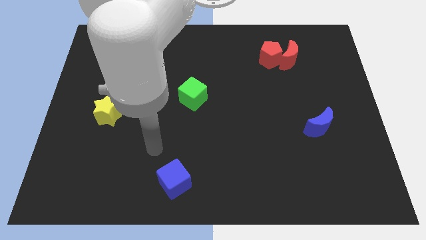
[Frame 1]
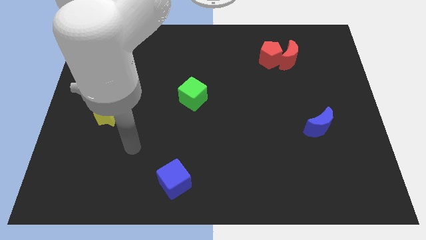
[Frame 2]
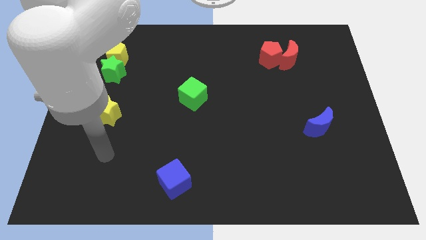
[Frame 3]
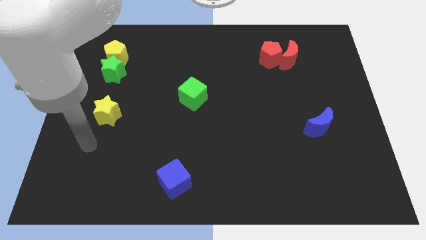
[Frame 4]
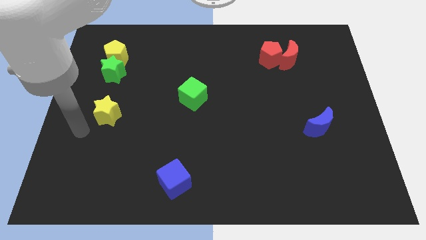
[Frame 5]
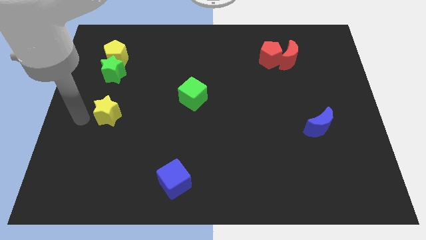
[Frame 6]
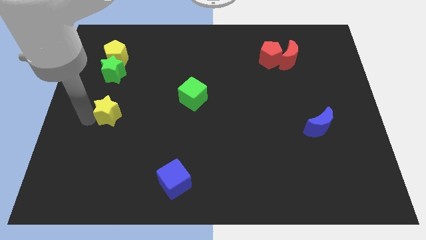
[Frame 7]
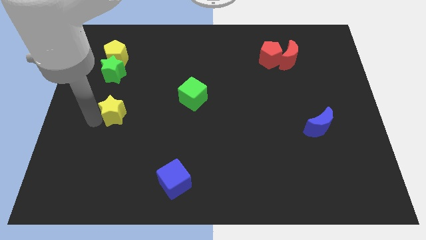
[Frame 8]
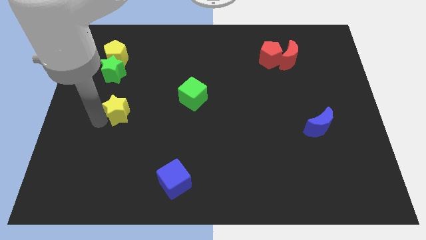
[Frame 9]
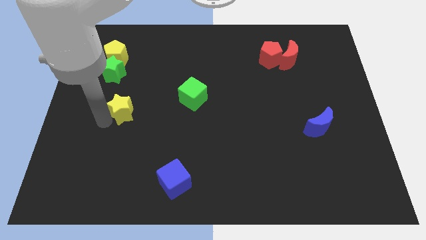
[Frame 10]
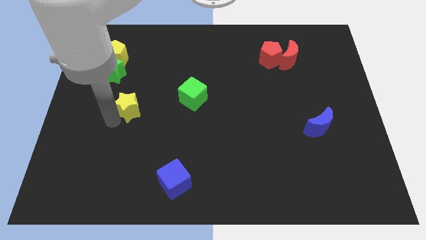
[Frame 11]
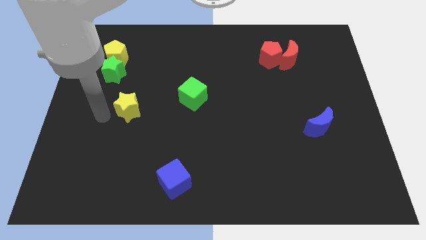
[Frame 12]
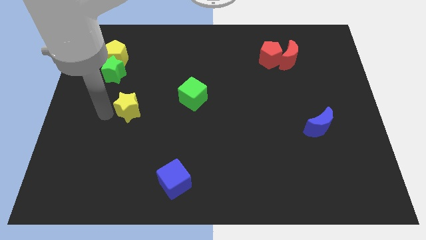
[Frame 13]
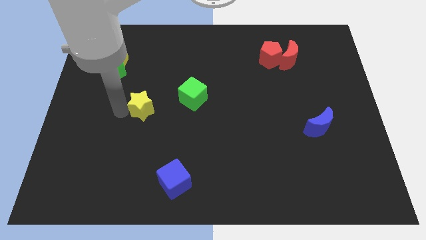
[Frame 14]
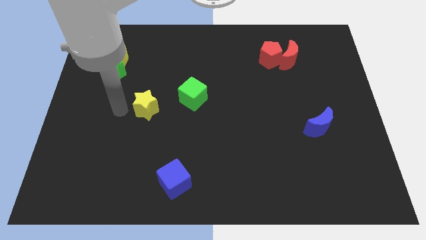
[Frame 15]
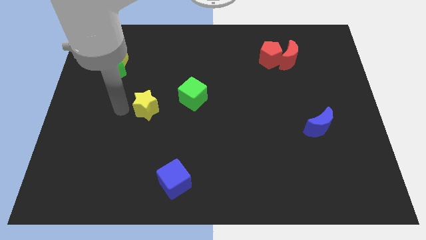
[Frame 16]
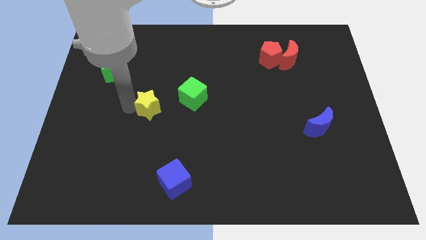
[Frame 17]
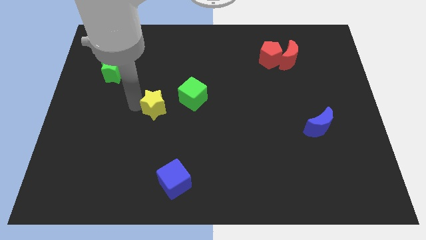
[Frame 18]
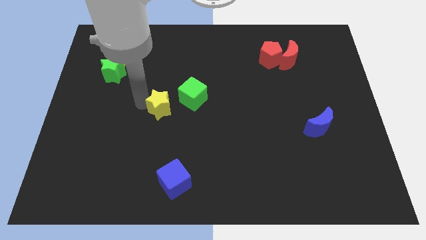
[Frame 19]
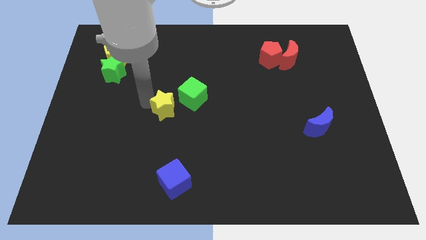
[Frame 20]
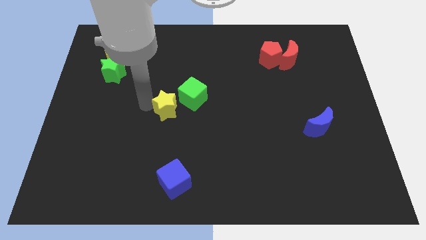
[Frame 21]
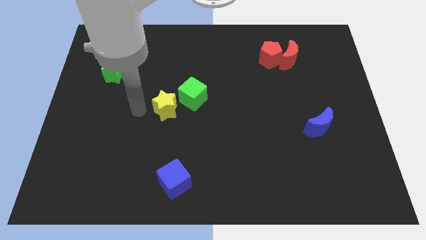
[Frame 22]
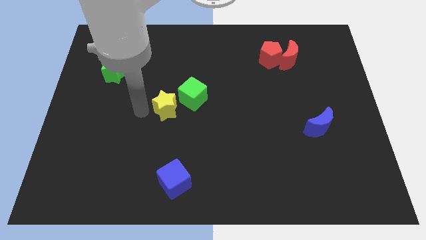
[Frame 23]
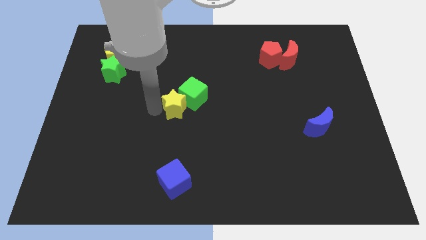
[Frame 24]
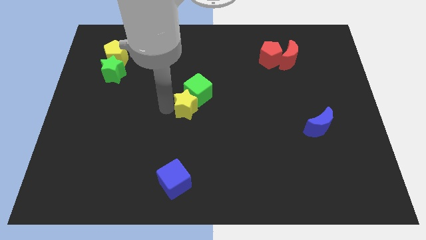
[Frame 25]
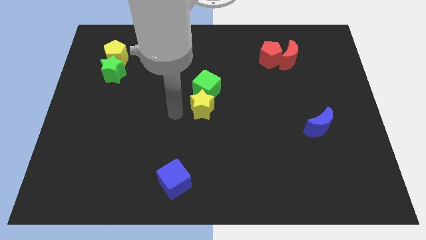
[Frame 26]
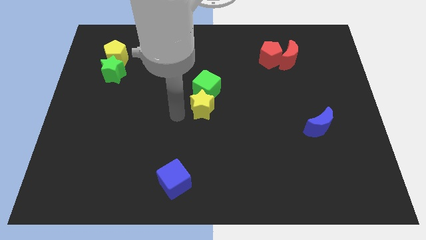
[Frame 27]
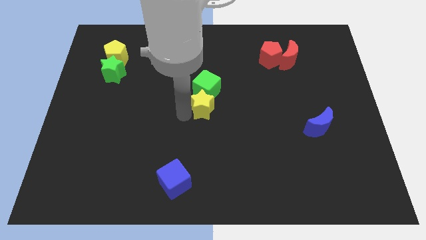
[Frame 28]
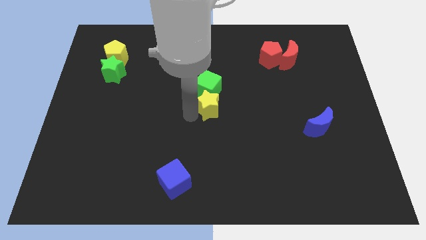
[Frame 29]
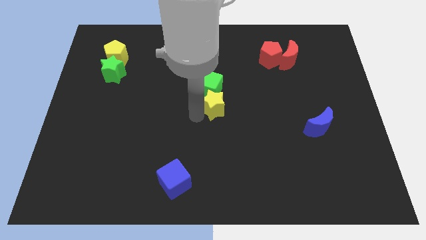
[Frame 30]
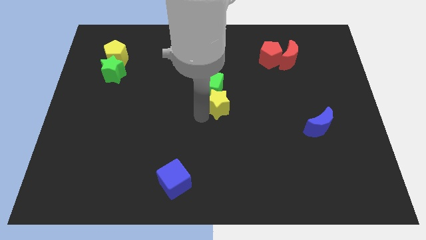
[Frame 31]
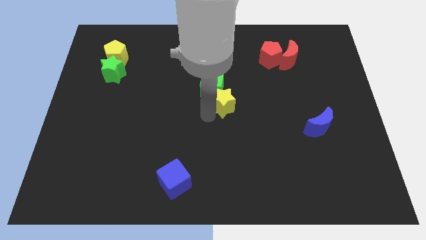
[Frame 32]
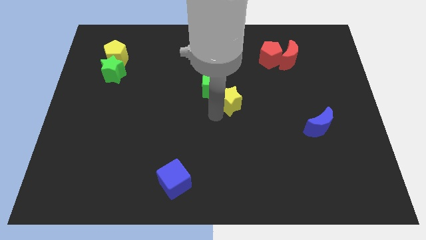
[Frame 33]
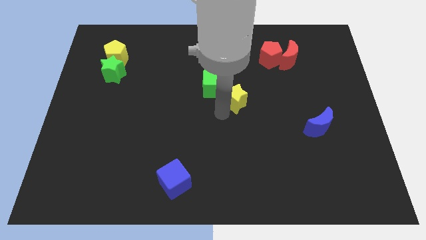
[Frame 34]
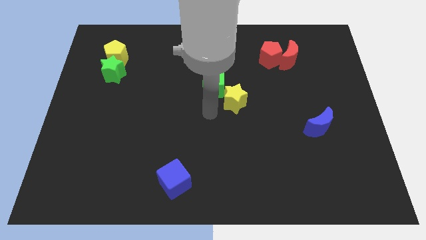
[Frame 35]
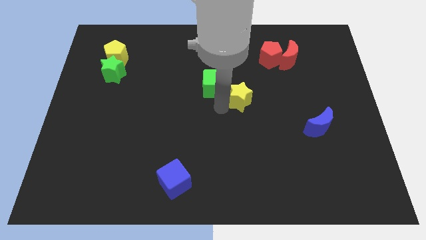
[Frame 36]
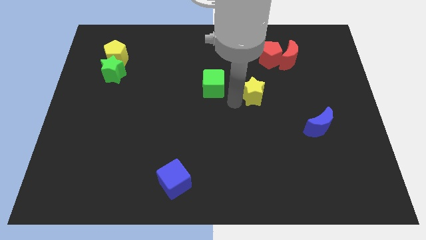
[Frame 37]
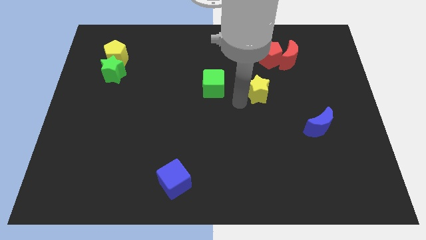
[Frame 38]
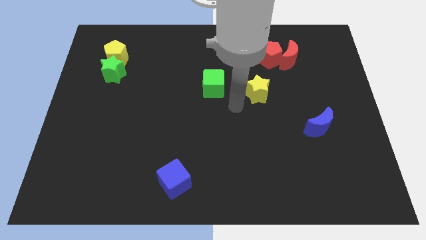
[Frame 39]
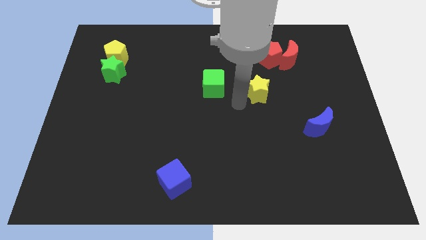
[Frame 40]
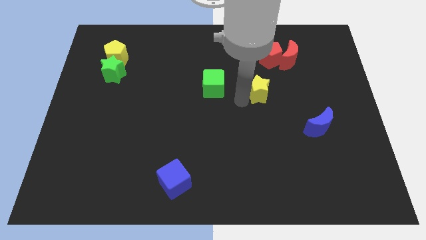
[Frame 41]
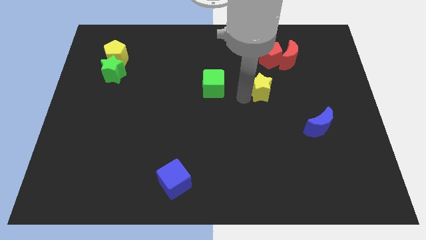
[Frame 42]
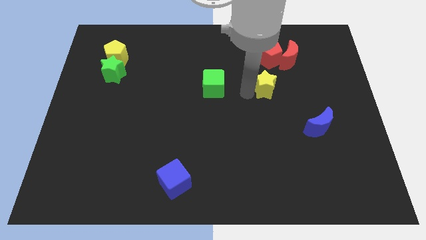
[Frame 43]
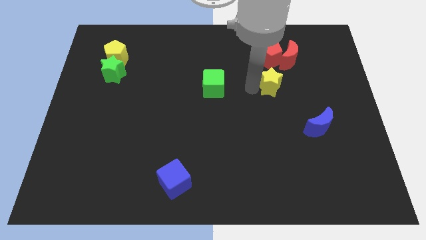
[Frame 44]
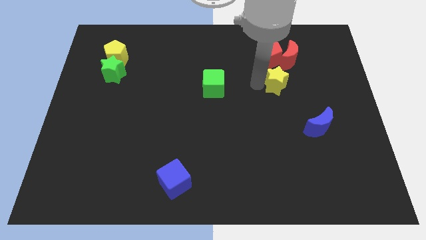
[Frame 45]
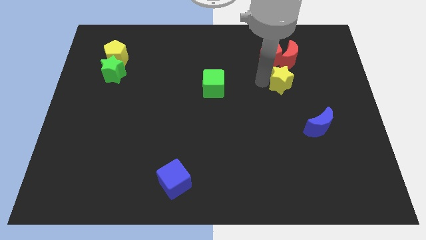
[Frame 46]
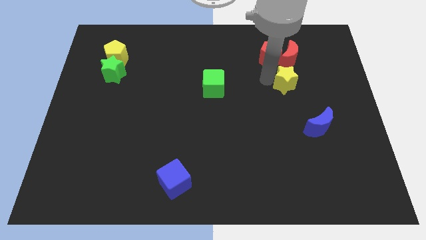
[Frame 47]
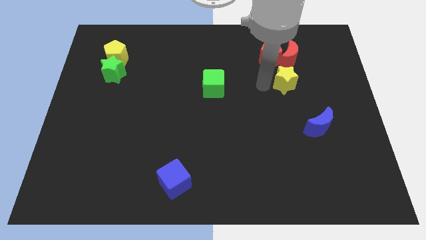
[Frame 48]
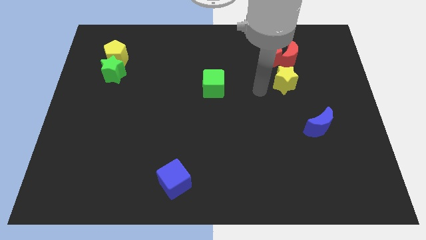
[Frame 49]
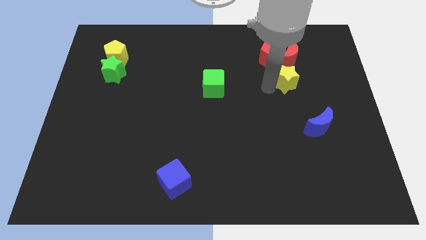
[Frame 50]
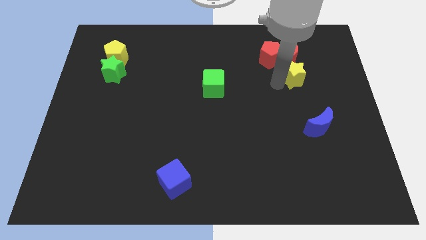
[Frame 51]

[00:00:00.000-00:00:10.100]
slide the yellow star to the bottom right of the red moon

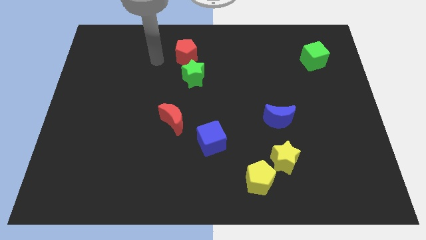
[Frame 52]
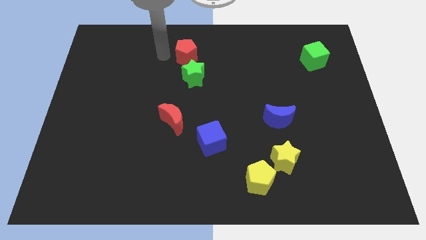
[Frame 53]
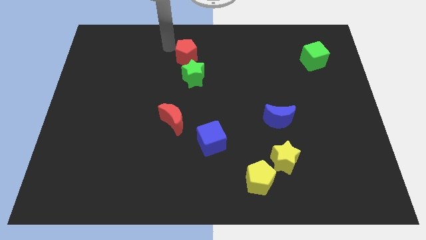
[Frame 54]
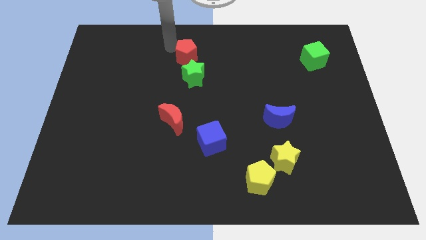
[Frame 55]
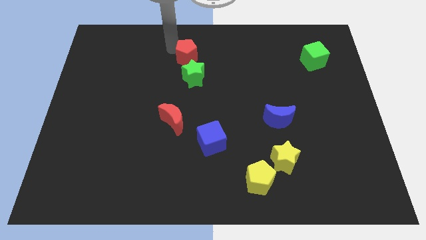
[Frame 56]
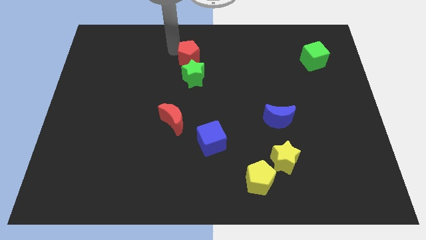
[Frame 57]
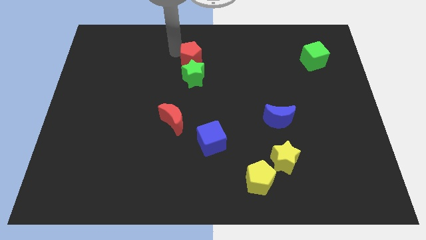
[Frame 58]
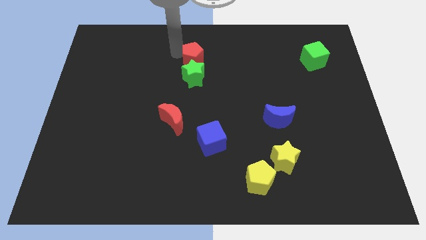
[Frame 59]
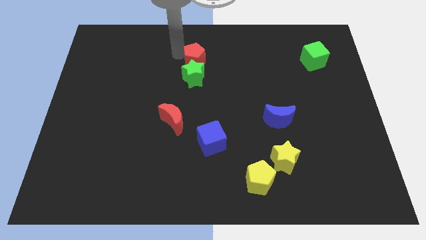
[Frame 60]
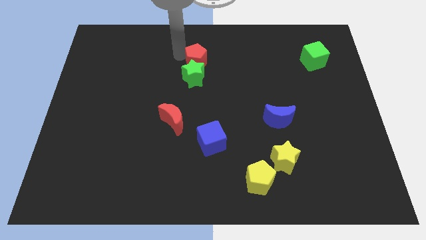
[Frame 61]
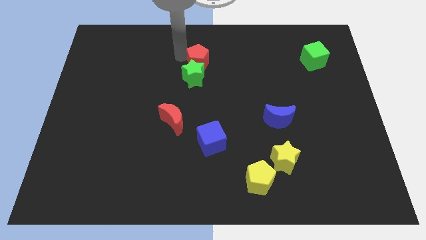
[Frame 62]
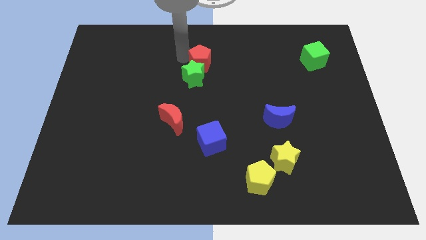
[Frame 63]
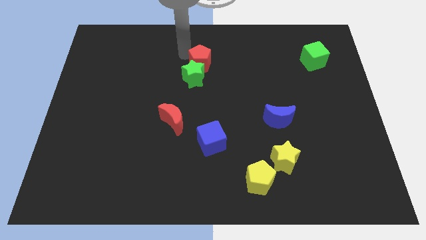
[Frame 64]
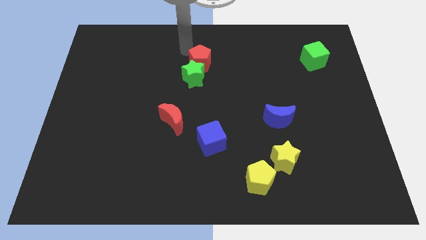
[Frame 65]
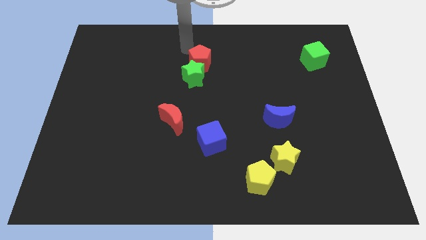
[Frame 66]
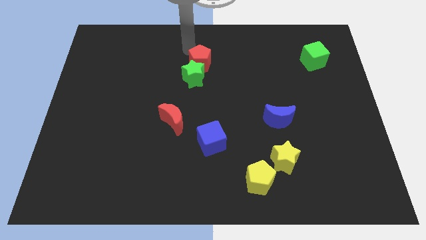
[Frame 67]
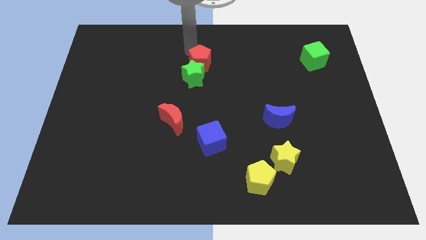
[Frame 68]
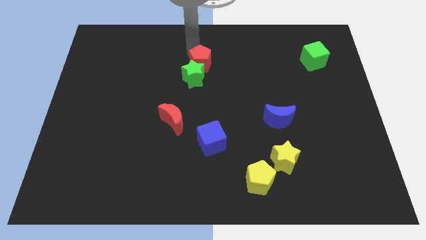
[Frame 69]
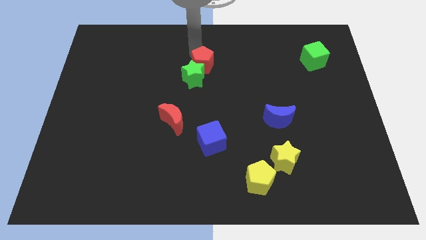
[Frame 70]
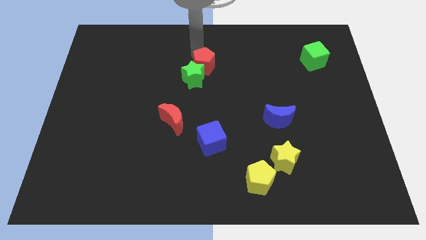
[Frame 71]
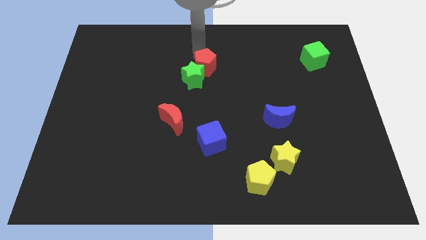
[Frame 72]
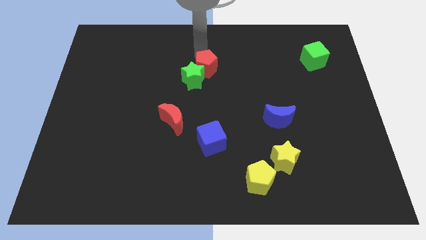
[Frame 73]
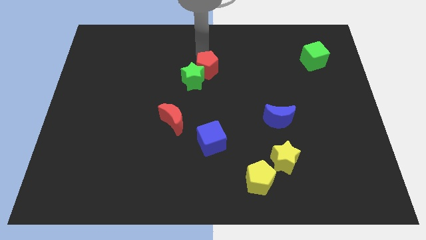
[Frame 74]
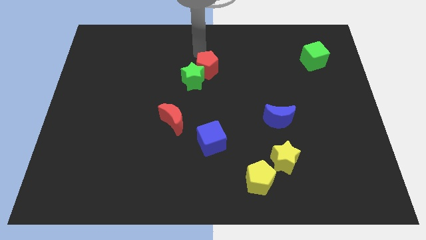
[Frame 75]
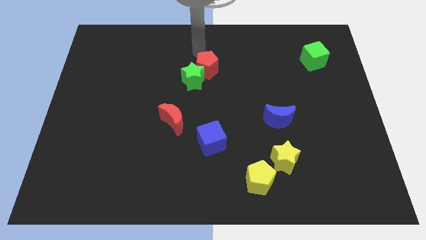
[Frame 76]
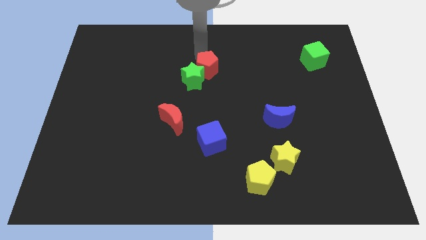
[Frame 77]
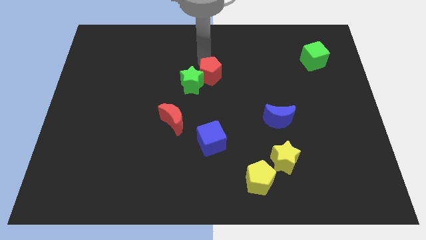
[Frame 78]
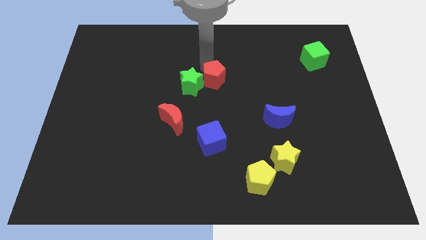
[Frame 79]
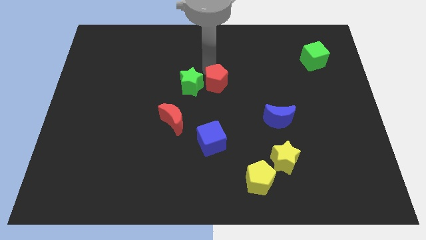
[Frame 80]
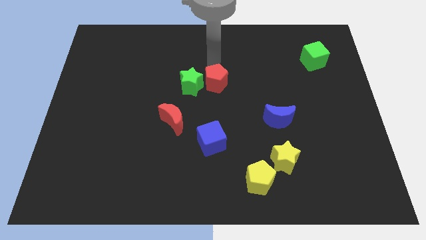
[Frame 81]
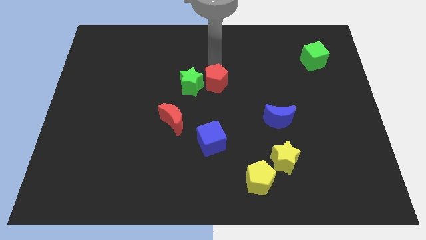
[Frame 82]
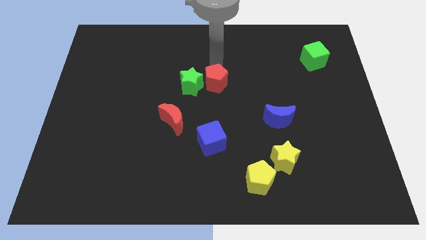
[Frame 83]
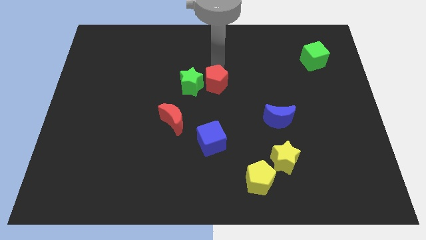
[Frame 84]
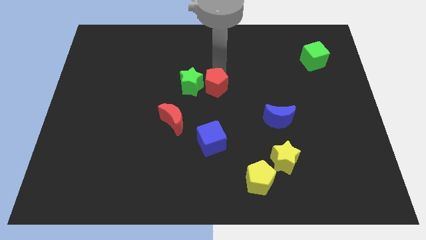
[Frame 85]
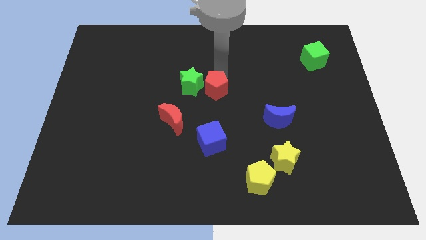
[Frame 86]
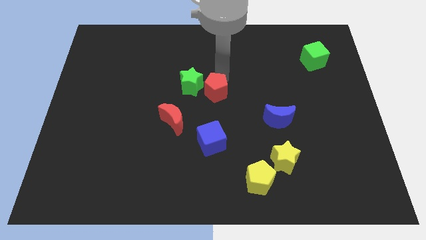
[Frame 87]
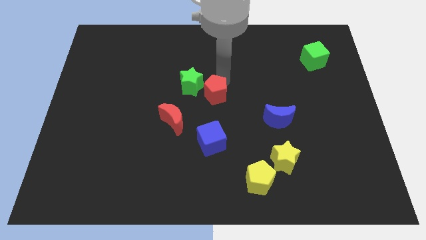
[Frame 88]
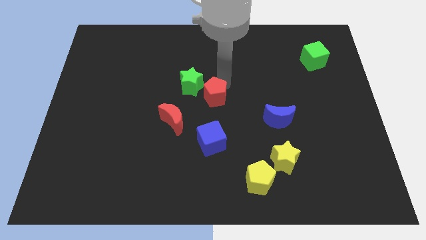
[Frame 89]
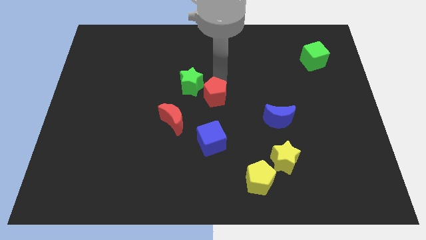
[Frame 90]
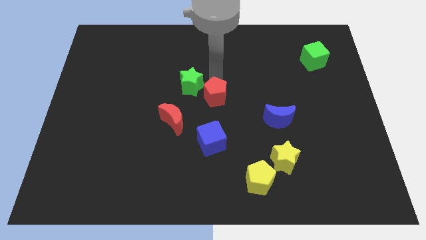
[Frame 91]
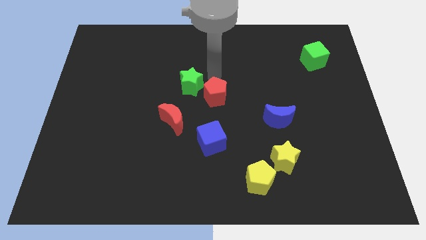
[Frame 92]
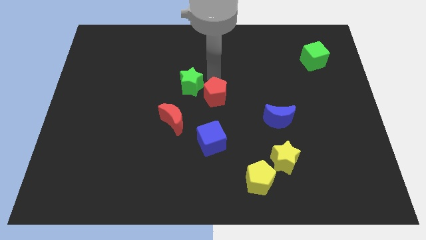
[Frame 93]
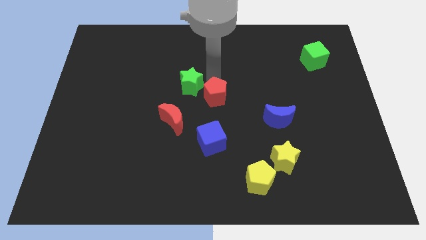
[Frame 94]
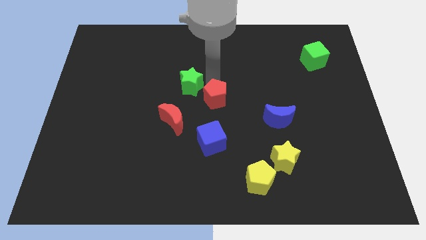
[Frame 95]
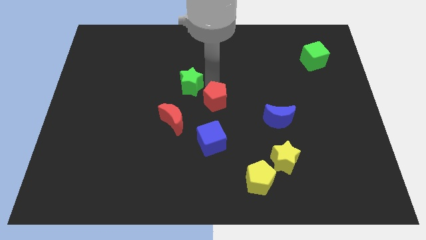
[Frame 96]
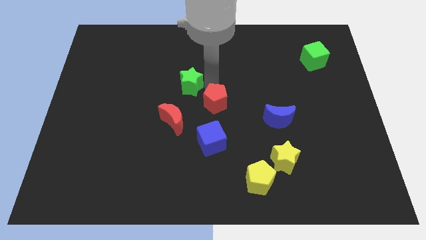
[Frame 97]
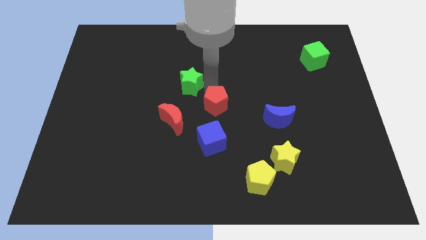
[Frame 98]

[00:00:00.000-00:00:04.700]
put the red pentagon just right of the red moon
